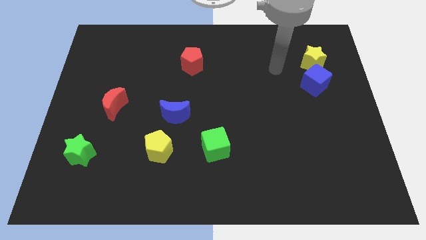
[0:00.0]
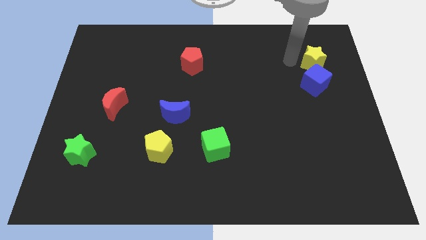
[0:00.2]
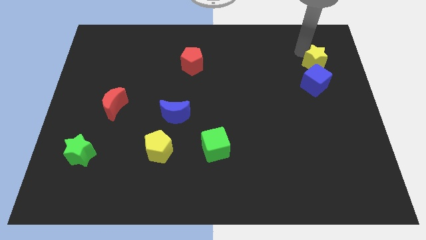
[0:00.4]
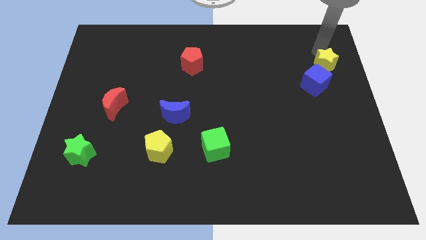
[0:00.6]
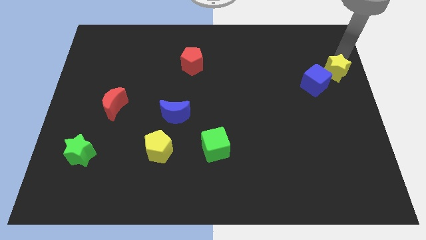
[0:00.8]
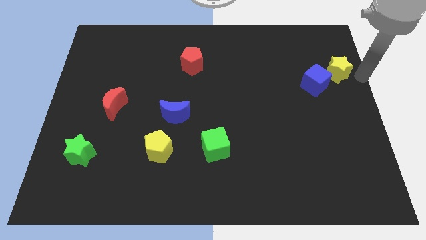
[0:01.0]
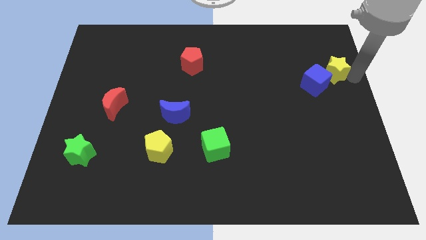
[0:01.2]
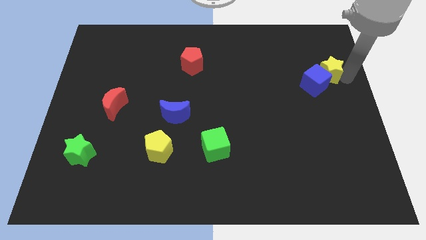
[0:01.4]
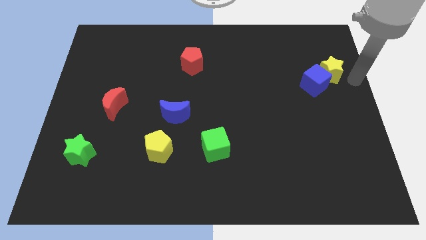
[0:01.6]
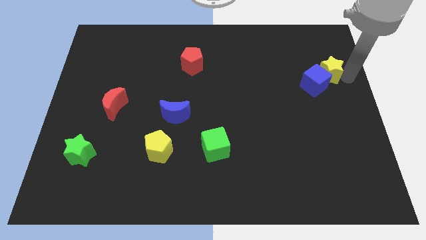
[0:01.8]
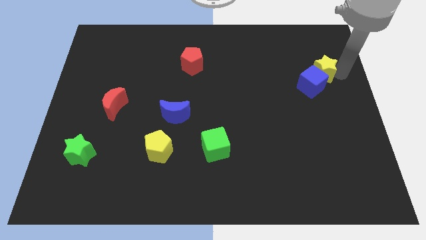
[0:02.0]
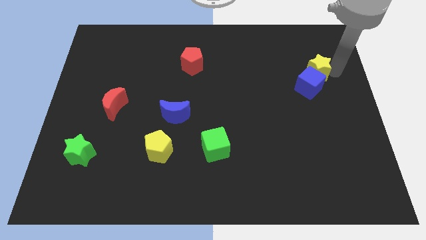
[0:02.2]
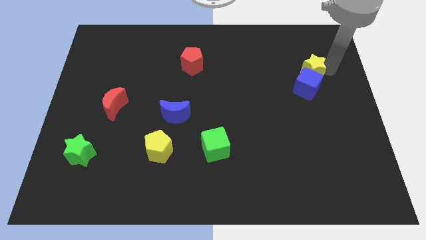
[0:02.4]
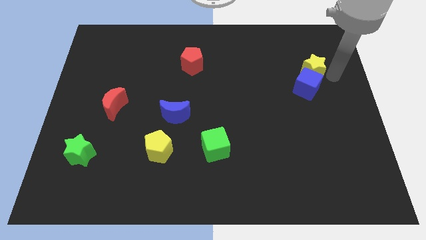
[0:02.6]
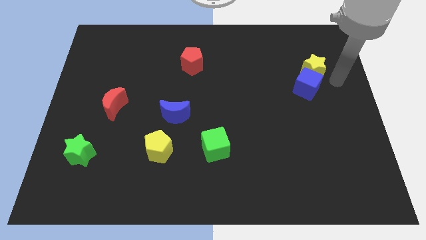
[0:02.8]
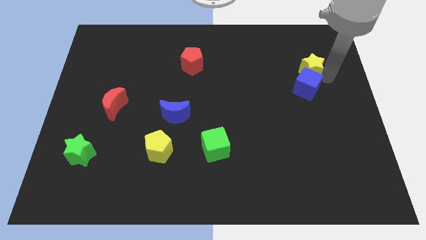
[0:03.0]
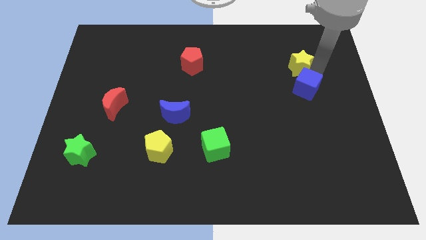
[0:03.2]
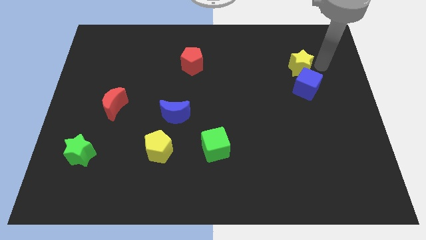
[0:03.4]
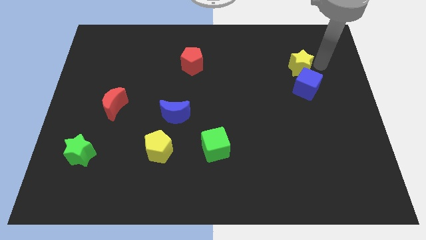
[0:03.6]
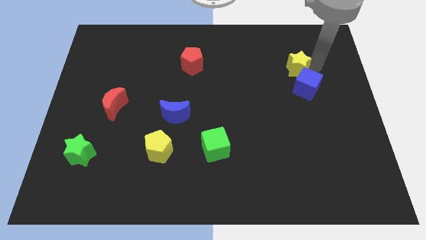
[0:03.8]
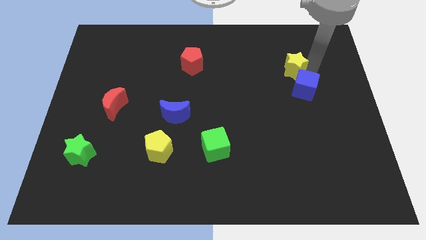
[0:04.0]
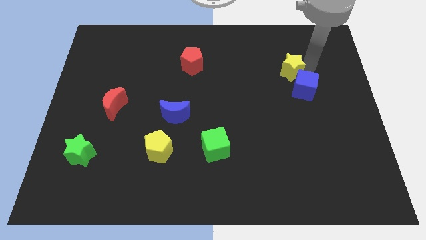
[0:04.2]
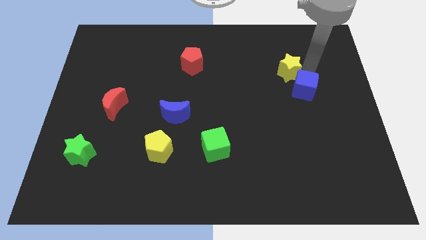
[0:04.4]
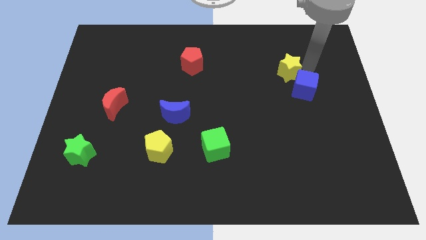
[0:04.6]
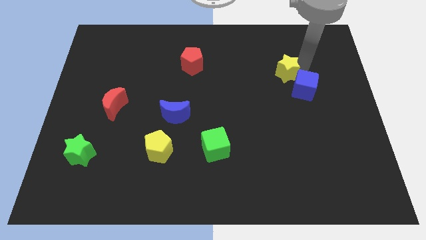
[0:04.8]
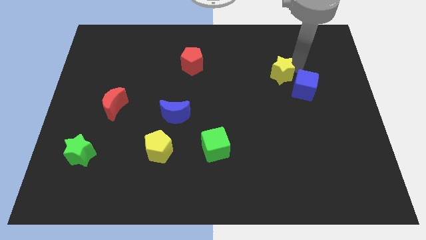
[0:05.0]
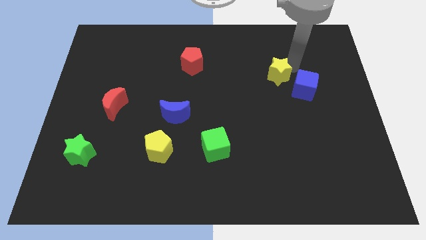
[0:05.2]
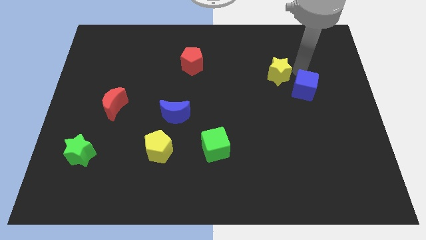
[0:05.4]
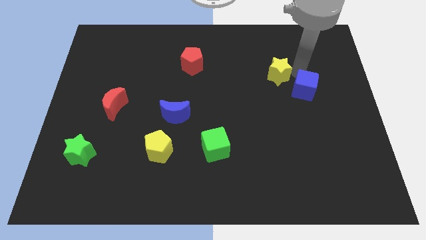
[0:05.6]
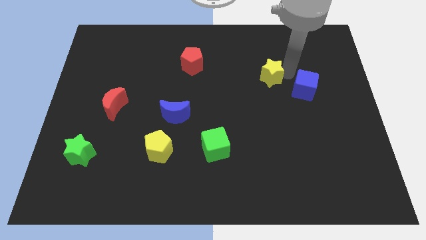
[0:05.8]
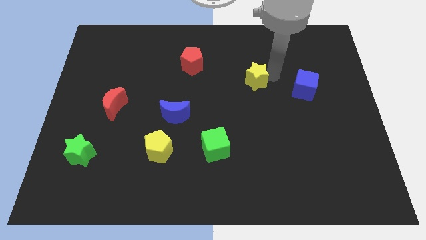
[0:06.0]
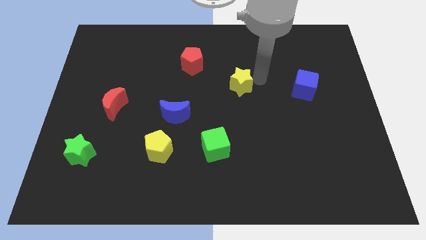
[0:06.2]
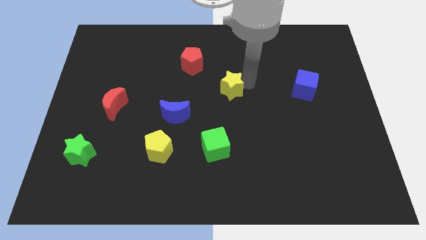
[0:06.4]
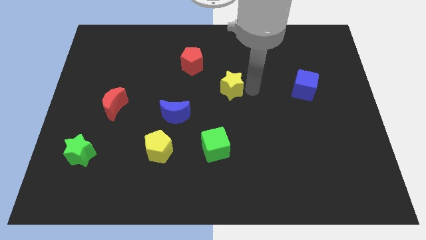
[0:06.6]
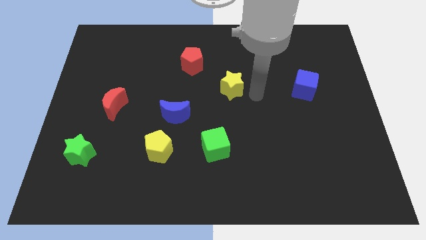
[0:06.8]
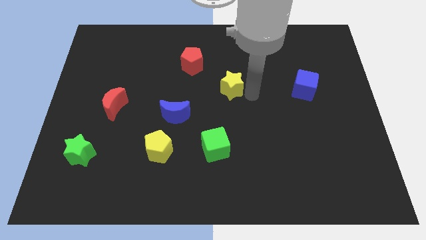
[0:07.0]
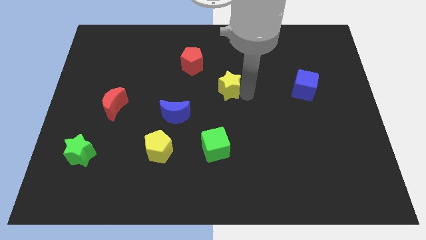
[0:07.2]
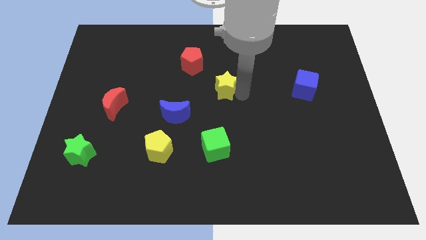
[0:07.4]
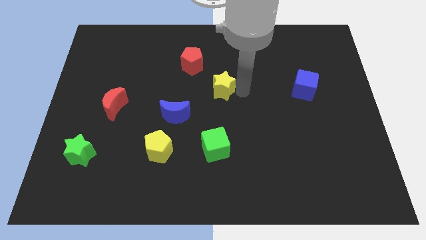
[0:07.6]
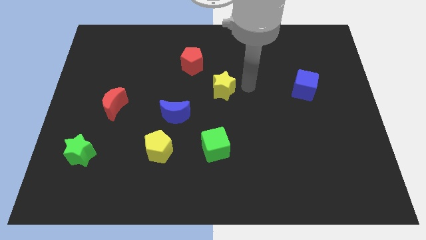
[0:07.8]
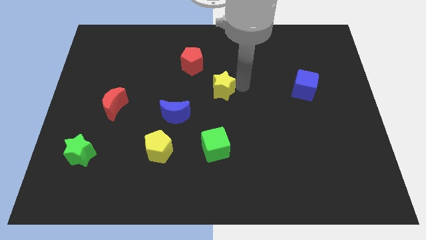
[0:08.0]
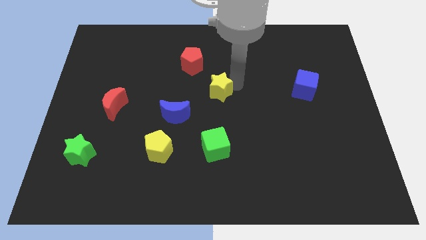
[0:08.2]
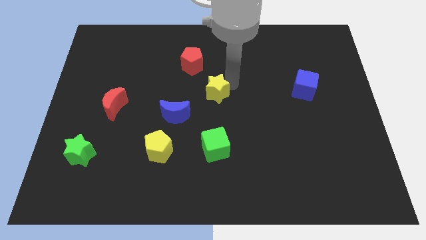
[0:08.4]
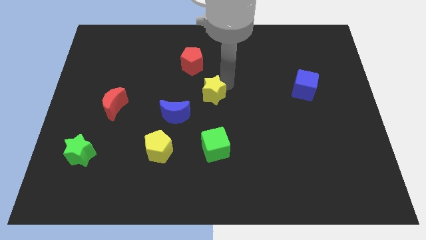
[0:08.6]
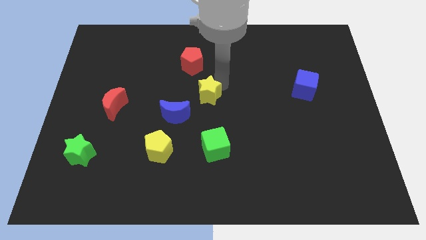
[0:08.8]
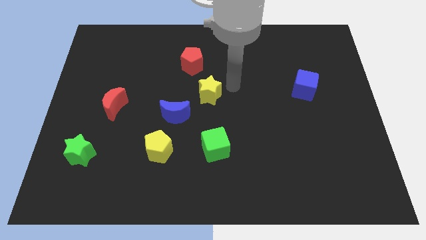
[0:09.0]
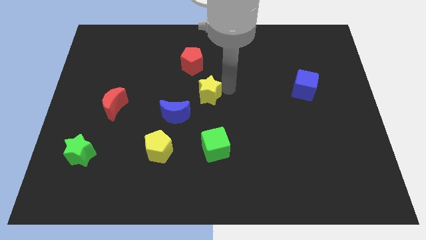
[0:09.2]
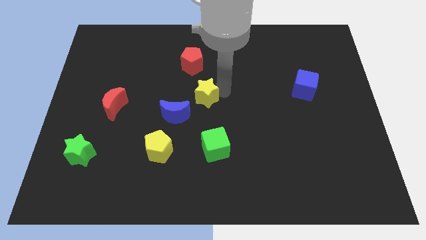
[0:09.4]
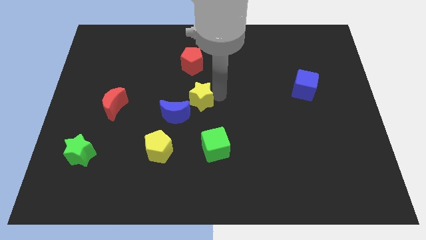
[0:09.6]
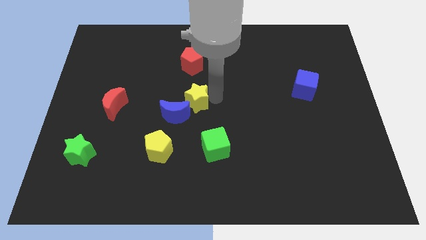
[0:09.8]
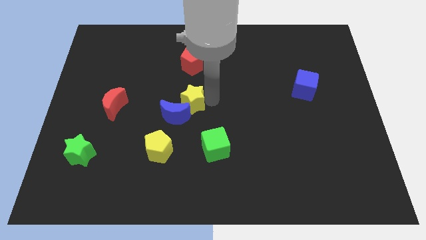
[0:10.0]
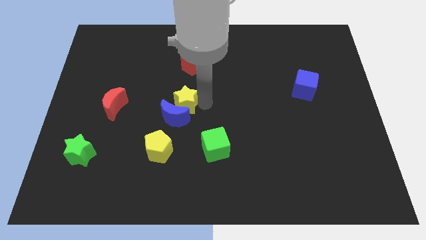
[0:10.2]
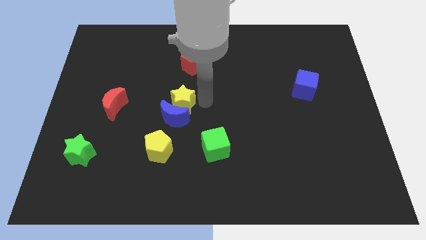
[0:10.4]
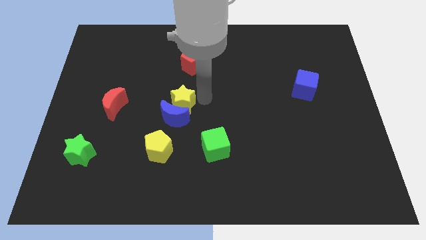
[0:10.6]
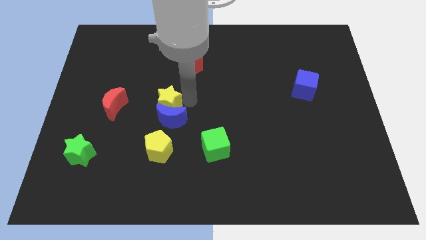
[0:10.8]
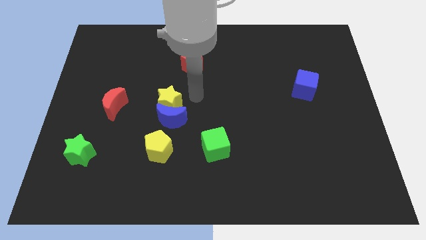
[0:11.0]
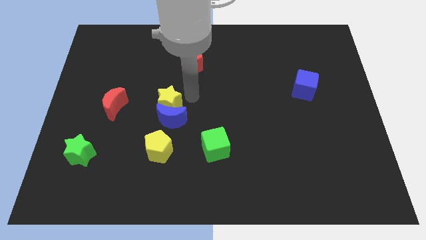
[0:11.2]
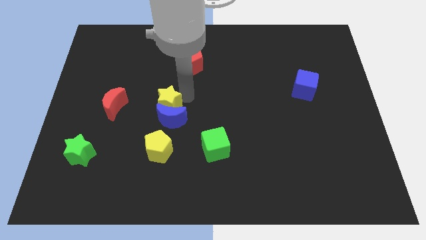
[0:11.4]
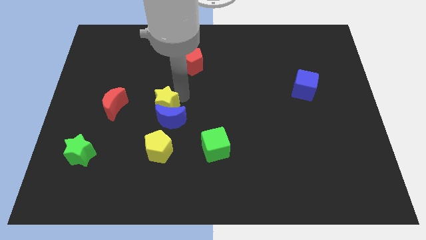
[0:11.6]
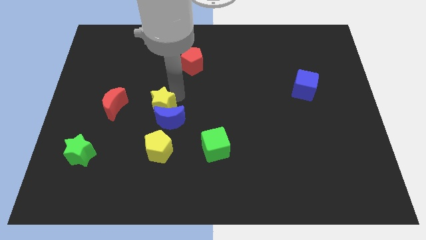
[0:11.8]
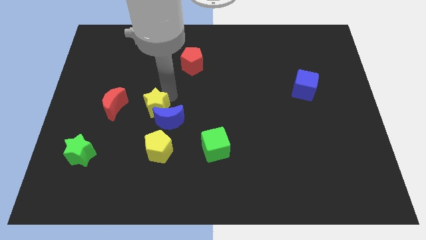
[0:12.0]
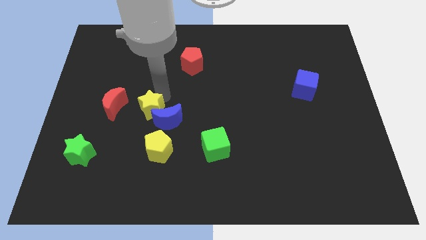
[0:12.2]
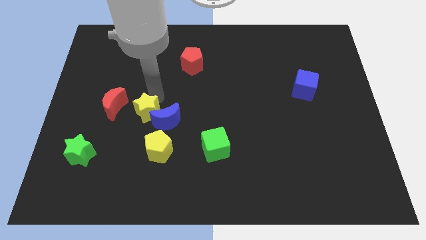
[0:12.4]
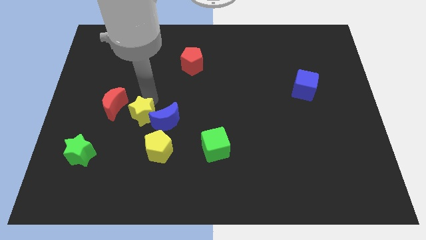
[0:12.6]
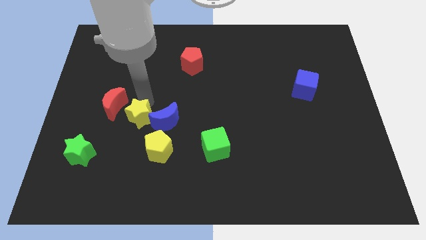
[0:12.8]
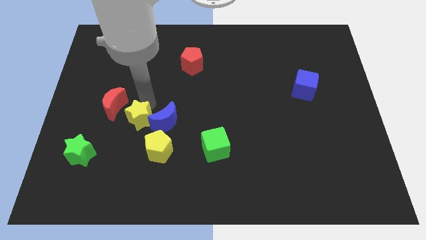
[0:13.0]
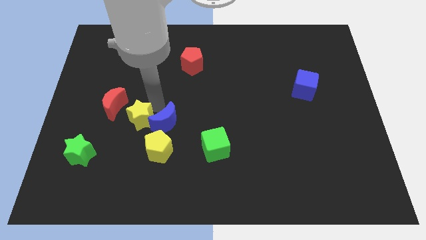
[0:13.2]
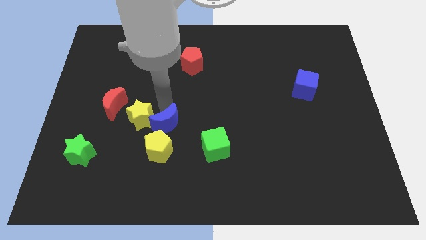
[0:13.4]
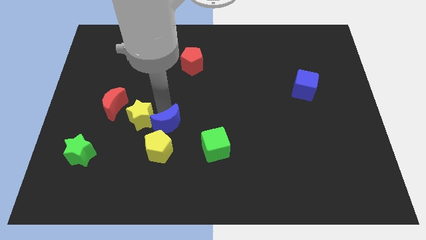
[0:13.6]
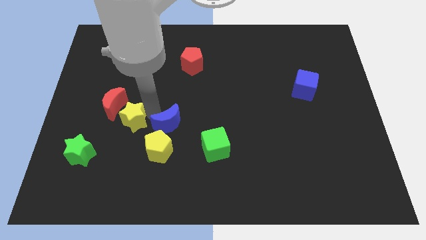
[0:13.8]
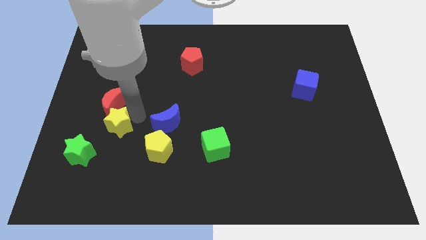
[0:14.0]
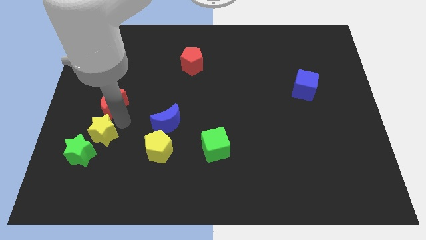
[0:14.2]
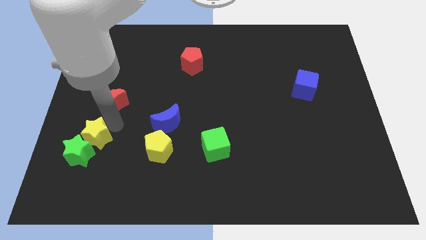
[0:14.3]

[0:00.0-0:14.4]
move the yellow star close to the green star
